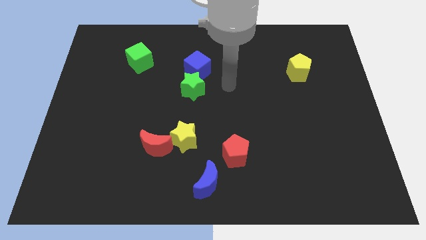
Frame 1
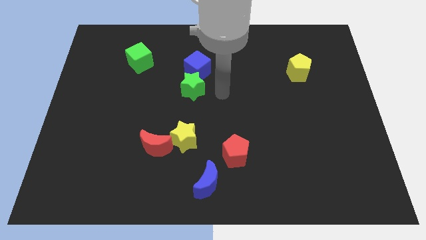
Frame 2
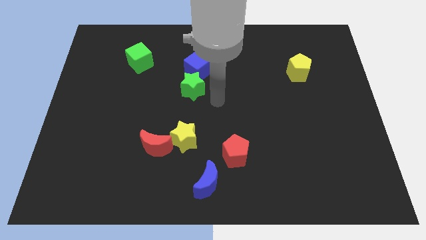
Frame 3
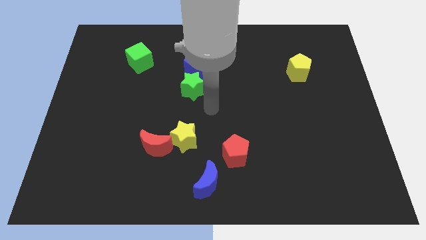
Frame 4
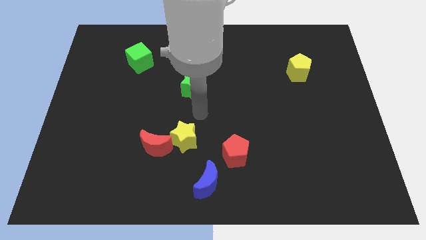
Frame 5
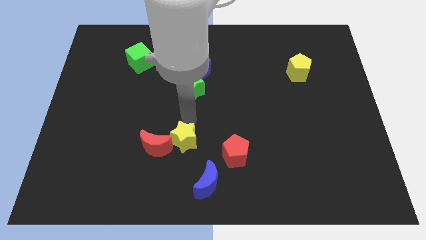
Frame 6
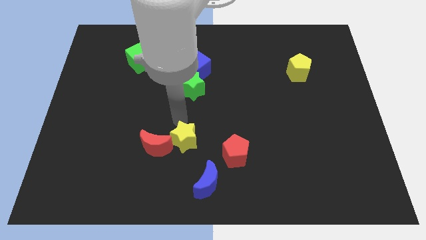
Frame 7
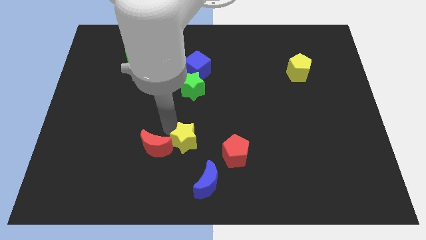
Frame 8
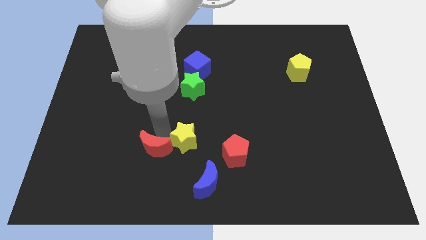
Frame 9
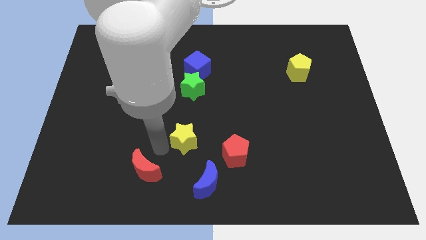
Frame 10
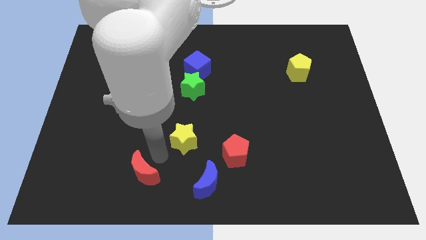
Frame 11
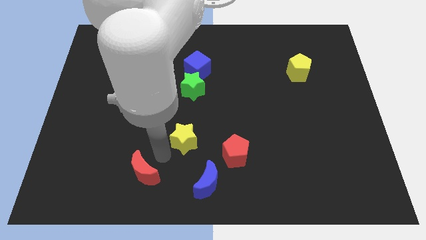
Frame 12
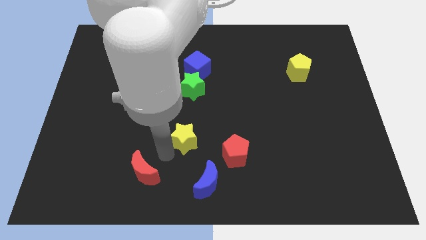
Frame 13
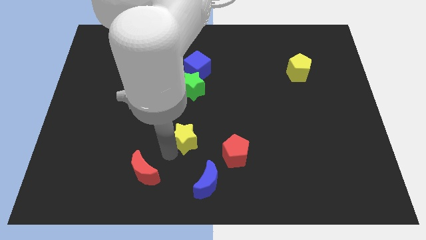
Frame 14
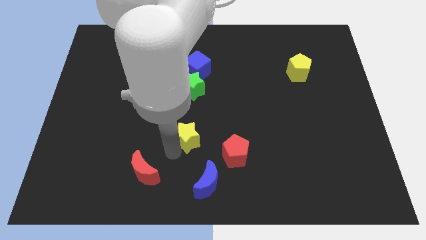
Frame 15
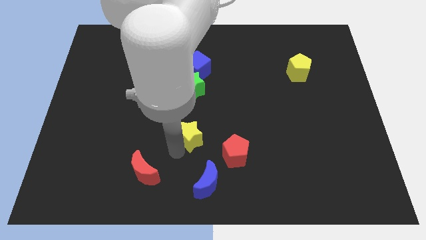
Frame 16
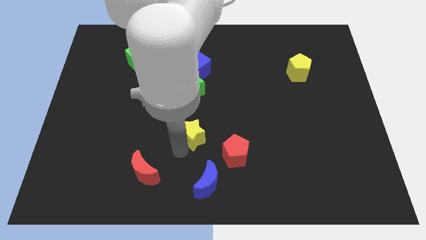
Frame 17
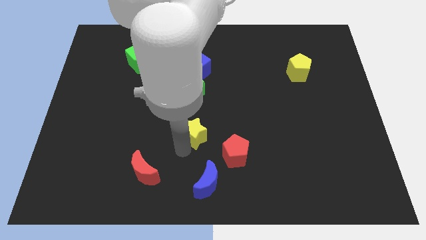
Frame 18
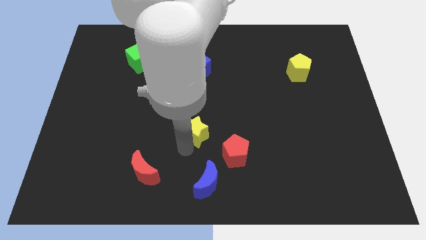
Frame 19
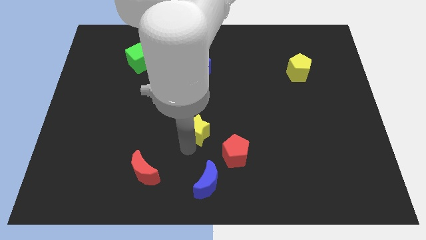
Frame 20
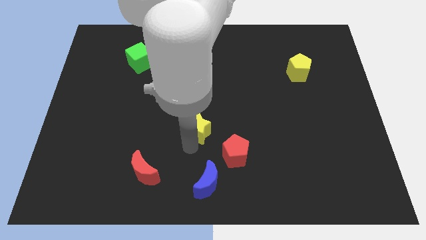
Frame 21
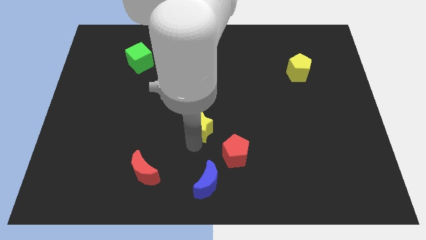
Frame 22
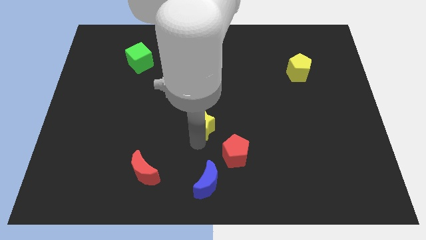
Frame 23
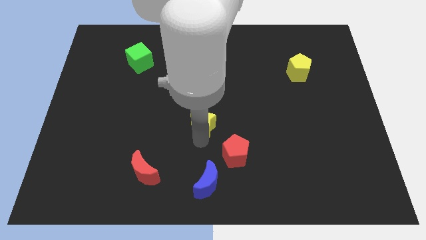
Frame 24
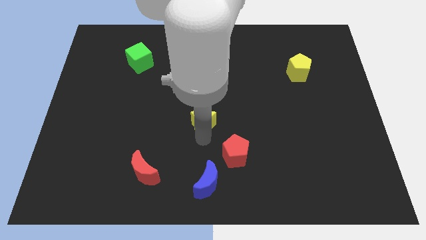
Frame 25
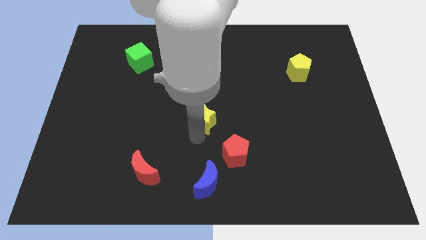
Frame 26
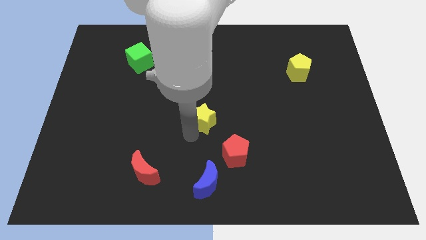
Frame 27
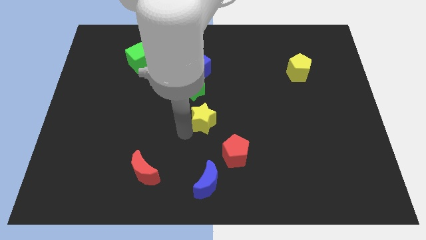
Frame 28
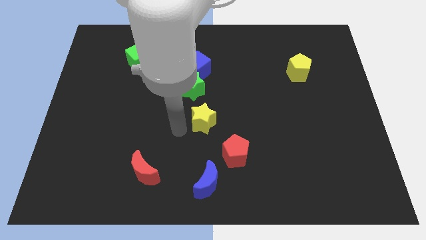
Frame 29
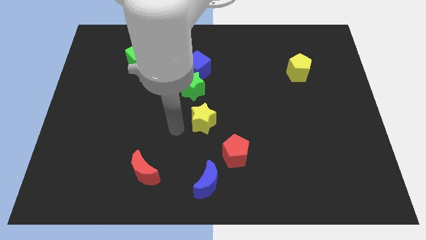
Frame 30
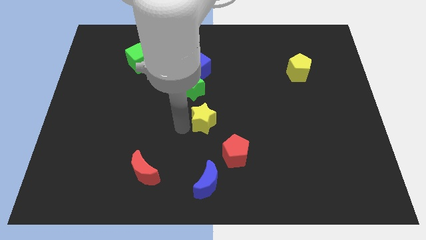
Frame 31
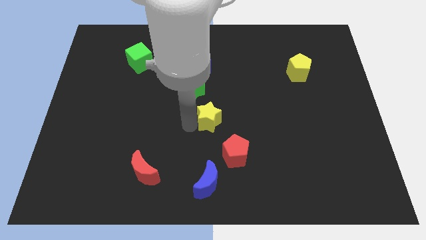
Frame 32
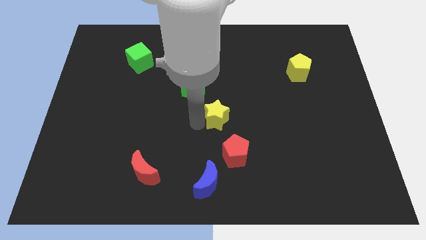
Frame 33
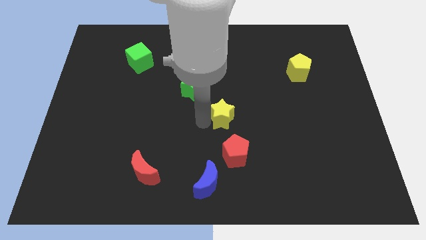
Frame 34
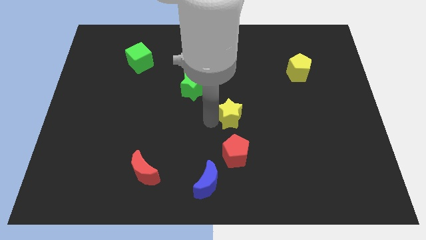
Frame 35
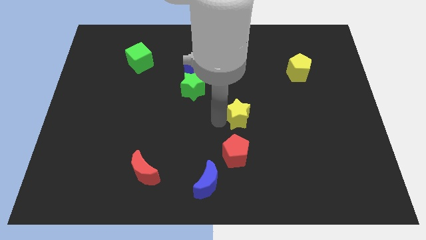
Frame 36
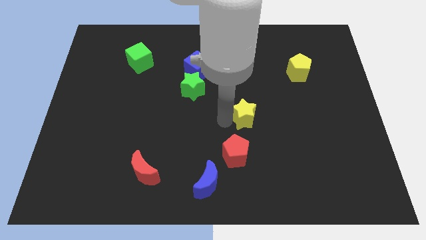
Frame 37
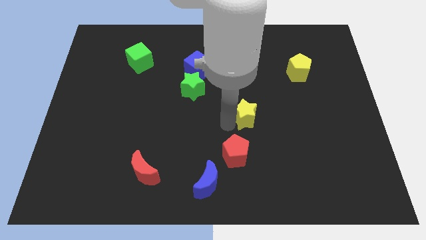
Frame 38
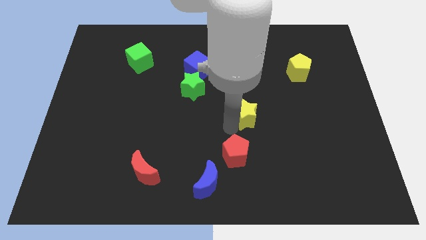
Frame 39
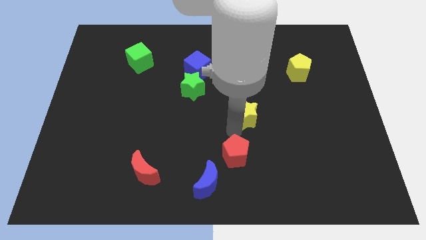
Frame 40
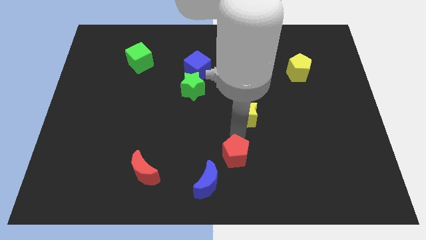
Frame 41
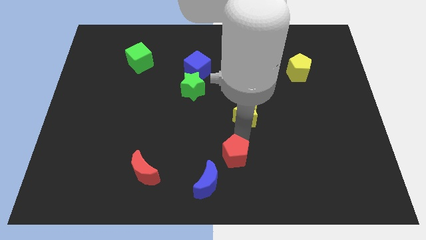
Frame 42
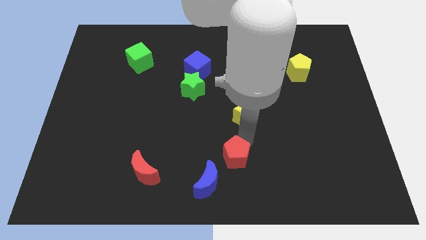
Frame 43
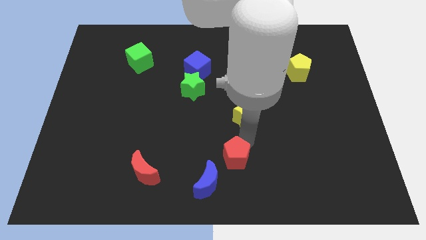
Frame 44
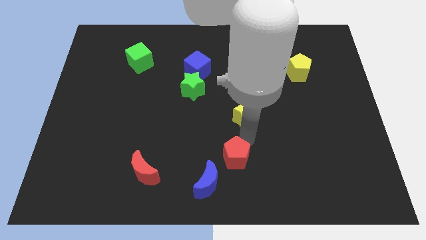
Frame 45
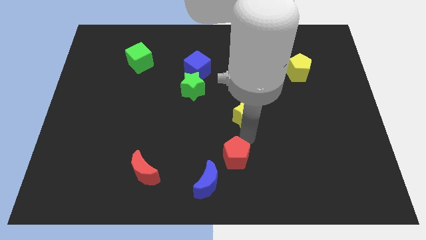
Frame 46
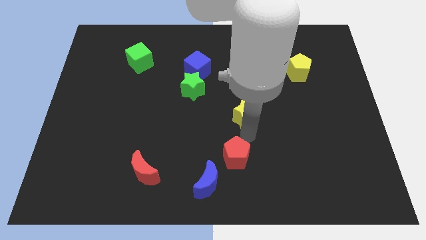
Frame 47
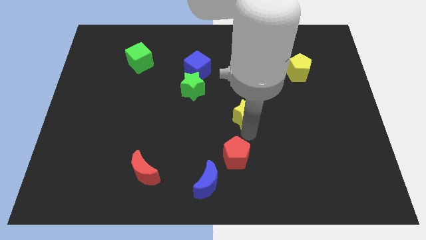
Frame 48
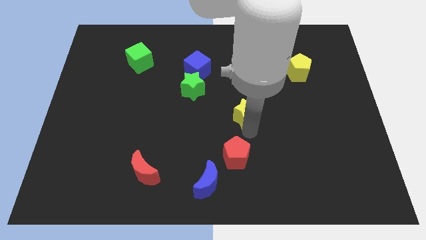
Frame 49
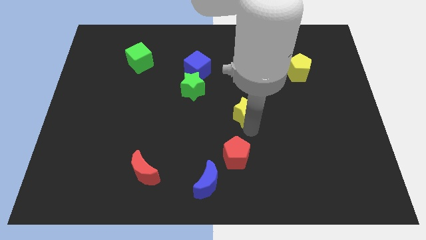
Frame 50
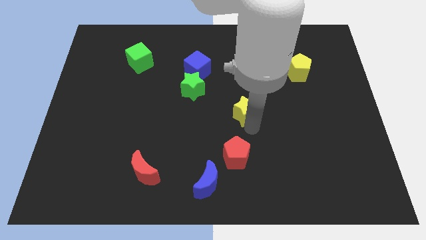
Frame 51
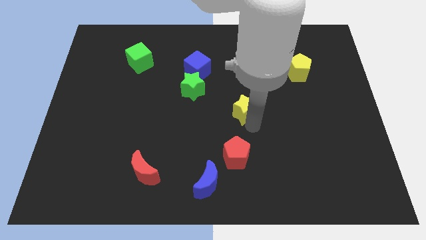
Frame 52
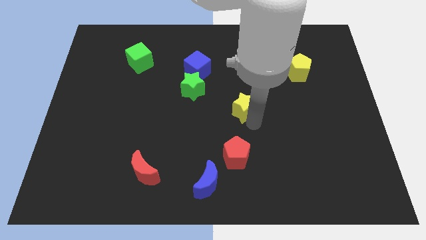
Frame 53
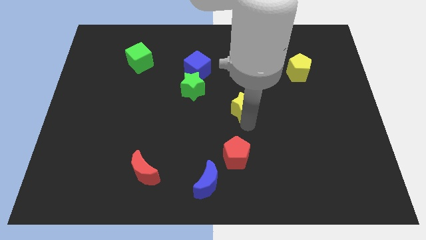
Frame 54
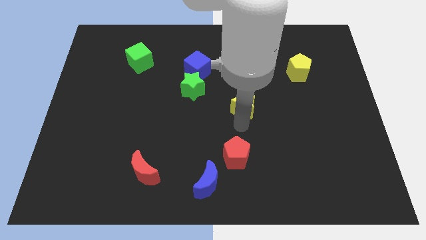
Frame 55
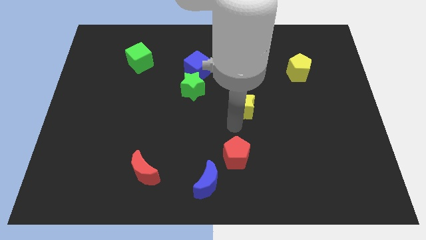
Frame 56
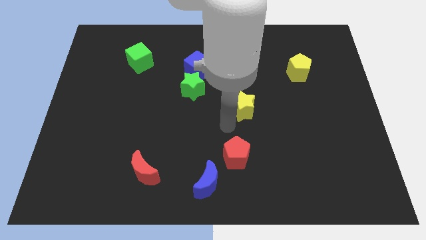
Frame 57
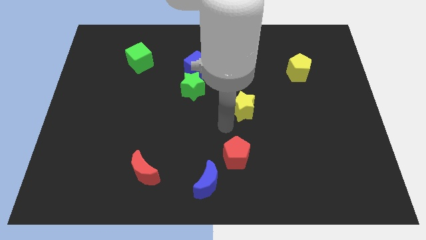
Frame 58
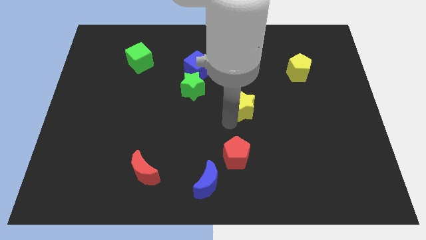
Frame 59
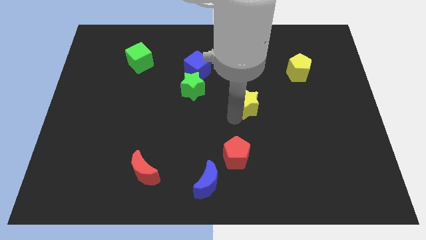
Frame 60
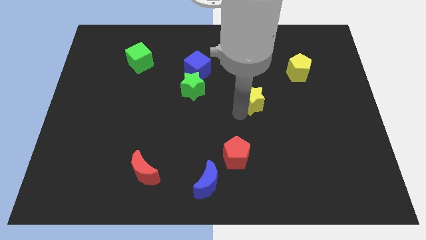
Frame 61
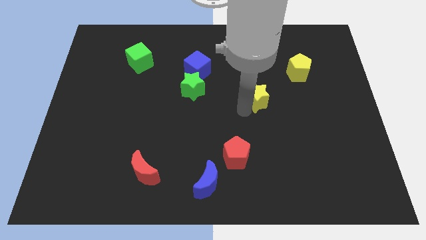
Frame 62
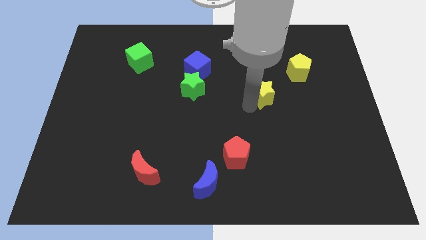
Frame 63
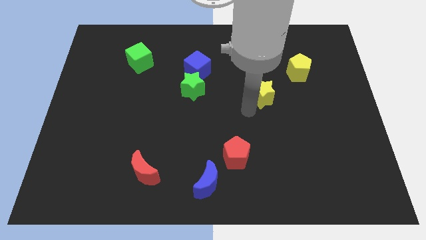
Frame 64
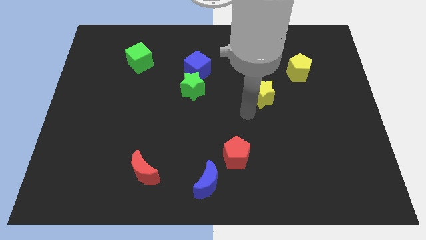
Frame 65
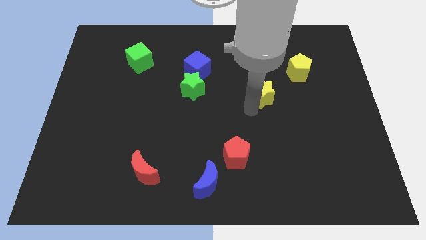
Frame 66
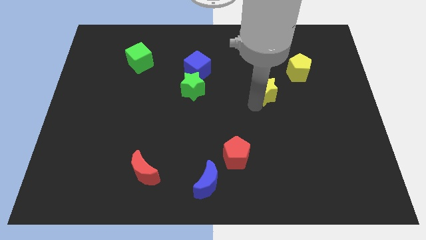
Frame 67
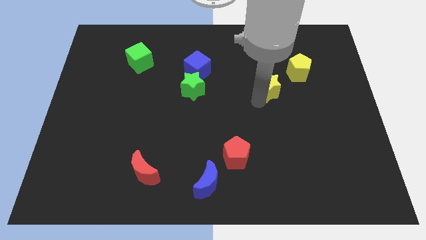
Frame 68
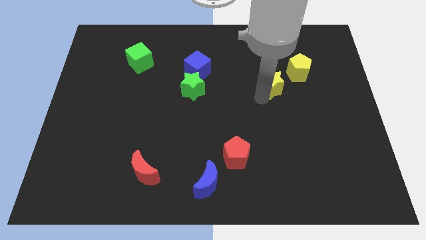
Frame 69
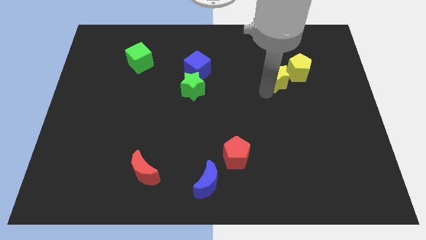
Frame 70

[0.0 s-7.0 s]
move the yellow star towards the yellow pentagon

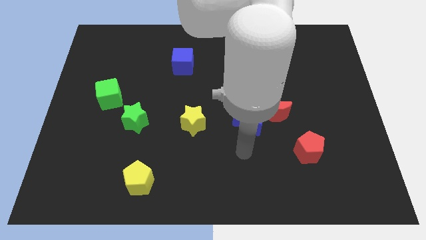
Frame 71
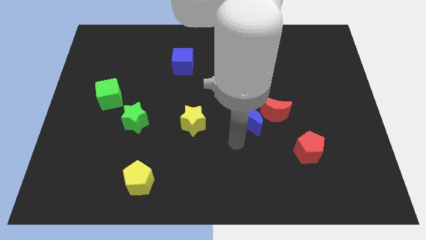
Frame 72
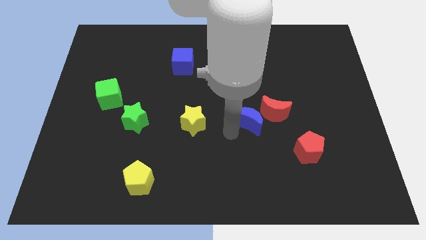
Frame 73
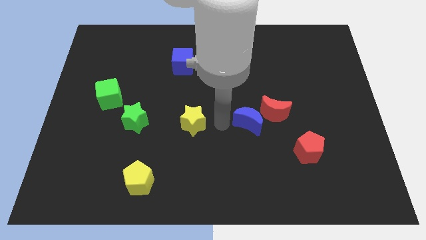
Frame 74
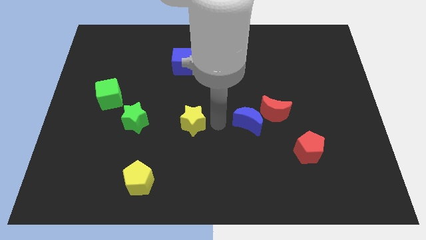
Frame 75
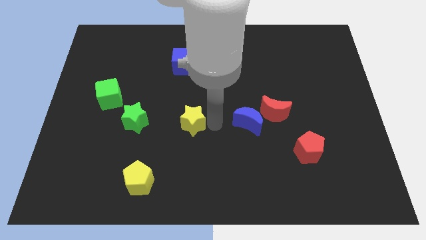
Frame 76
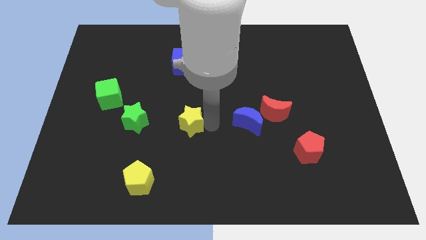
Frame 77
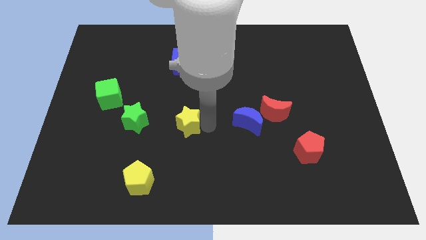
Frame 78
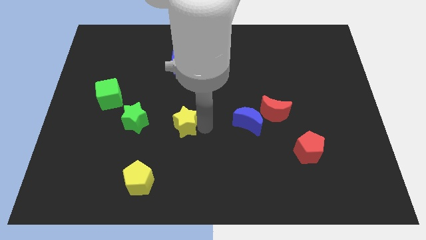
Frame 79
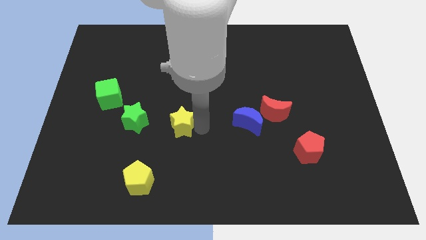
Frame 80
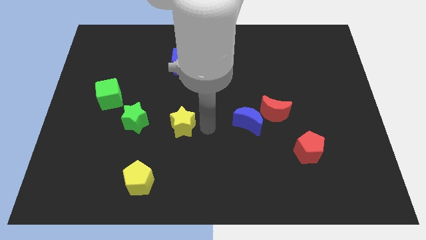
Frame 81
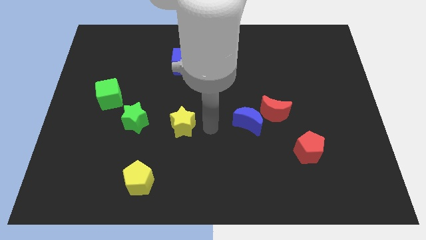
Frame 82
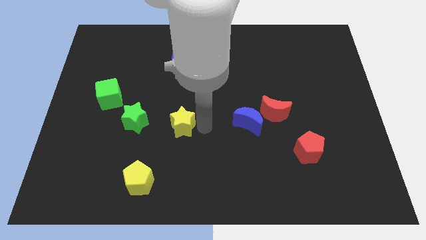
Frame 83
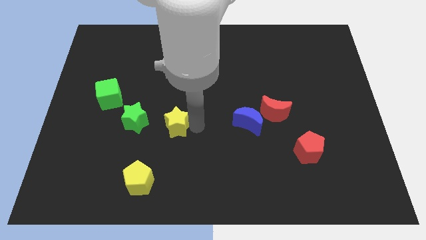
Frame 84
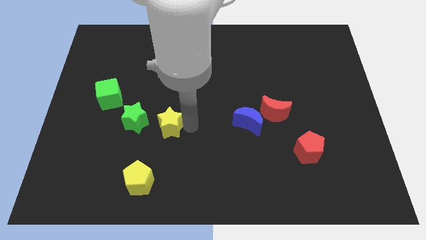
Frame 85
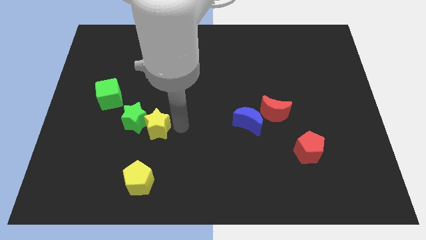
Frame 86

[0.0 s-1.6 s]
slide the yellow star next to the green star
